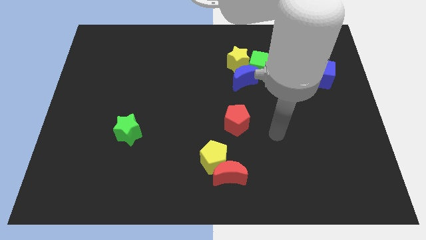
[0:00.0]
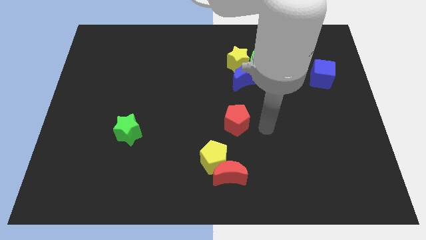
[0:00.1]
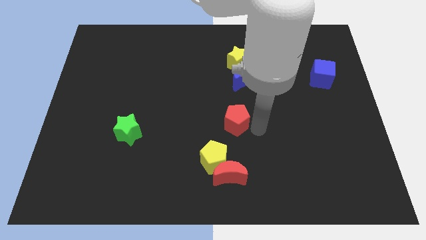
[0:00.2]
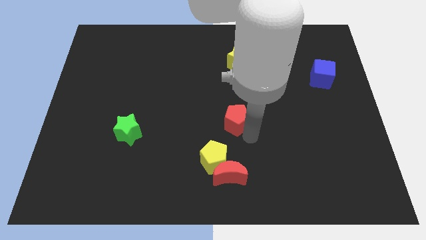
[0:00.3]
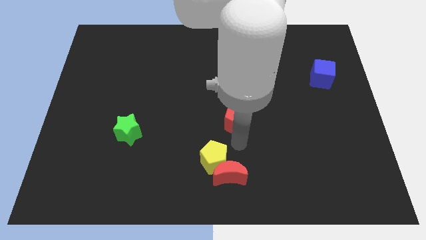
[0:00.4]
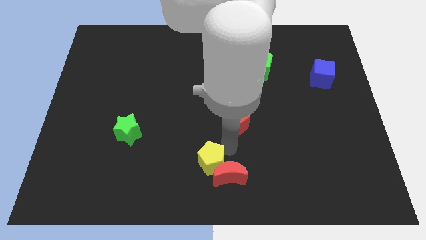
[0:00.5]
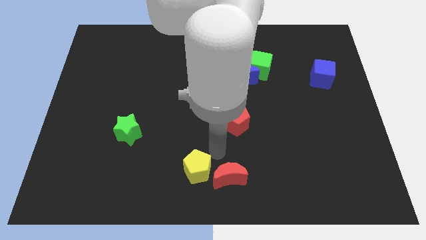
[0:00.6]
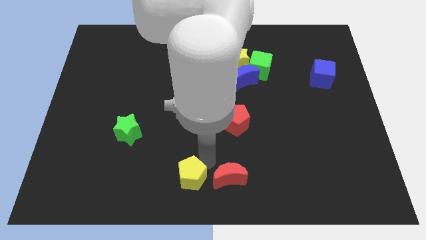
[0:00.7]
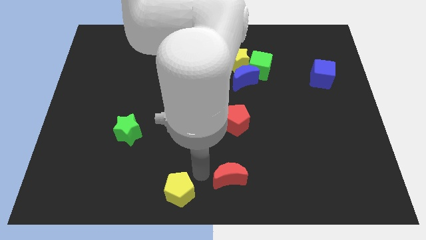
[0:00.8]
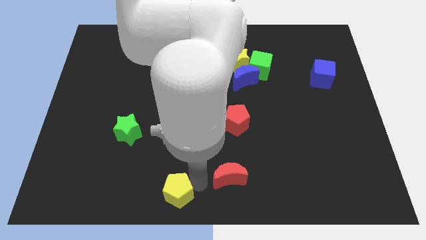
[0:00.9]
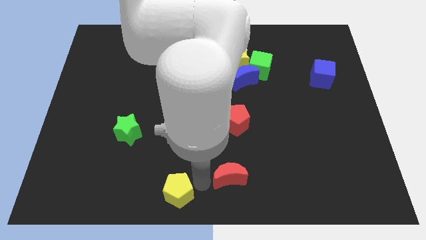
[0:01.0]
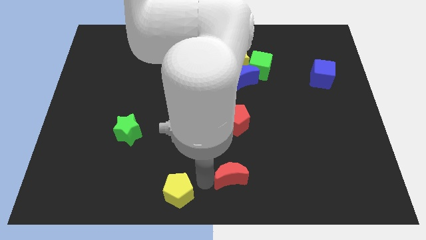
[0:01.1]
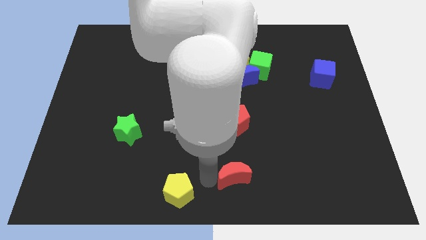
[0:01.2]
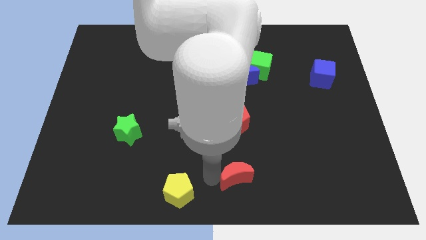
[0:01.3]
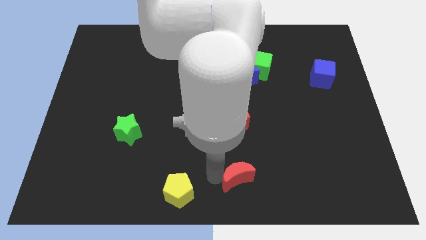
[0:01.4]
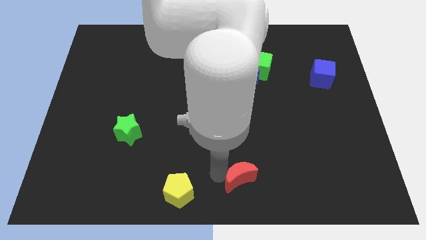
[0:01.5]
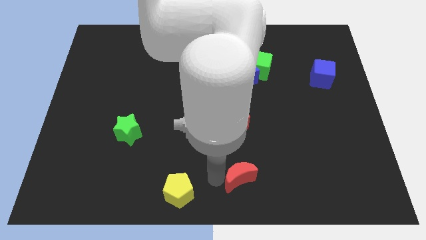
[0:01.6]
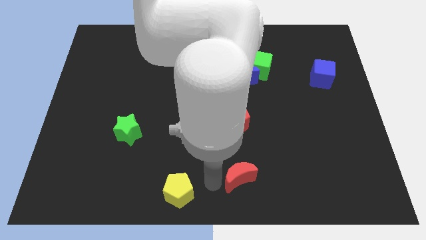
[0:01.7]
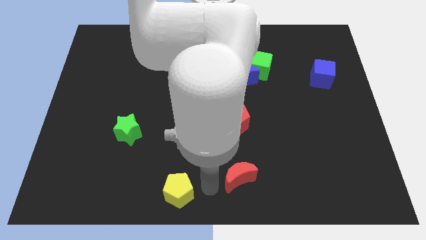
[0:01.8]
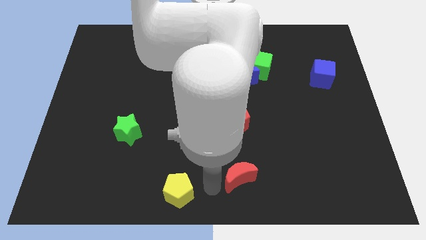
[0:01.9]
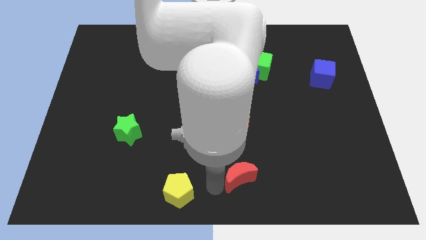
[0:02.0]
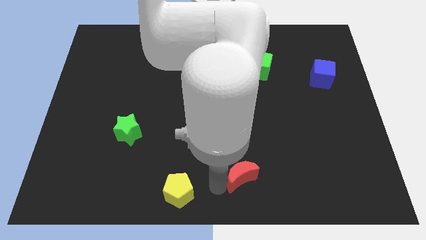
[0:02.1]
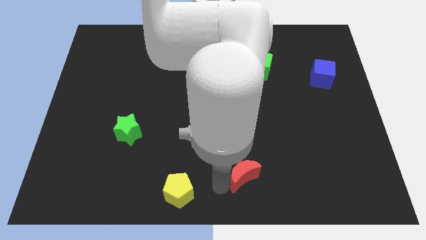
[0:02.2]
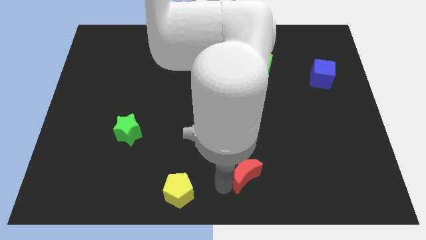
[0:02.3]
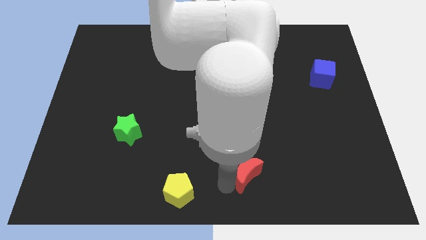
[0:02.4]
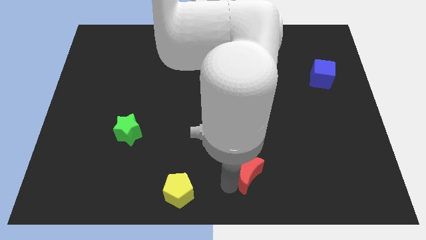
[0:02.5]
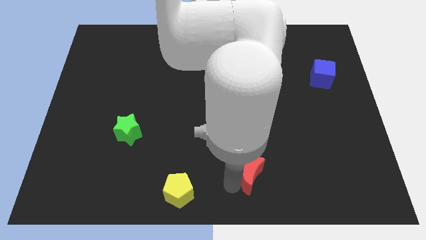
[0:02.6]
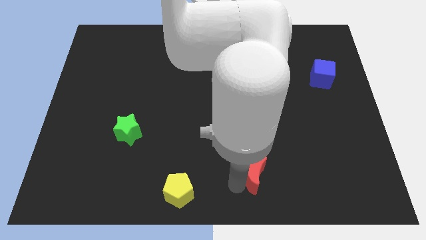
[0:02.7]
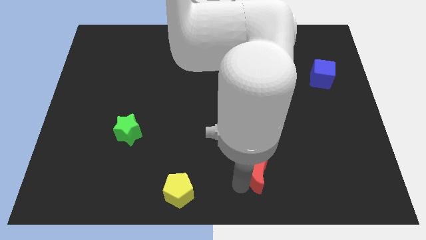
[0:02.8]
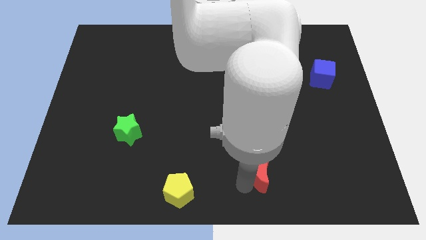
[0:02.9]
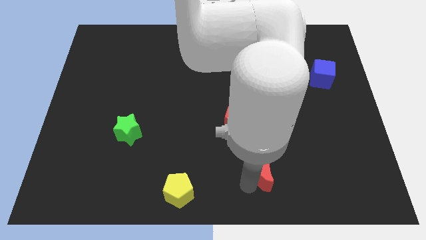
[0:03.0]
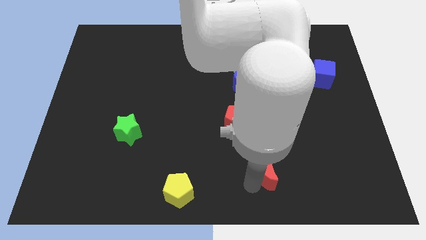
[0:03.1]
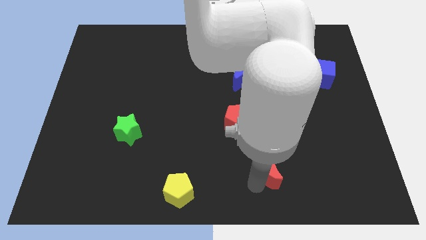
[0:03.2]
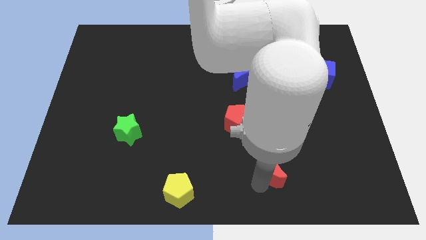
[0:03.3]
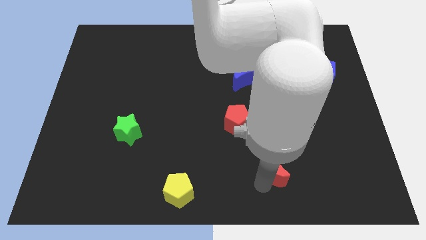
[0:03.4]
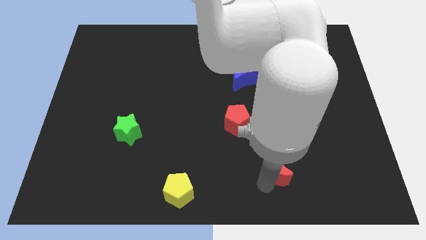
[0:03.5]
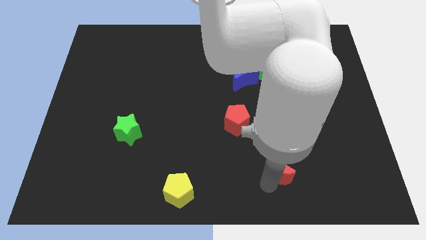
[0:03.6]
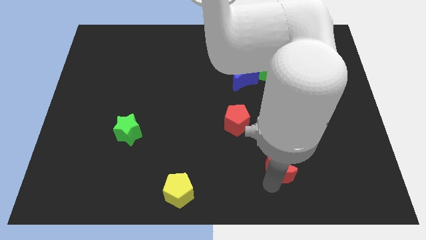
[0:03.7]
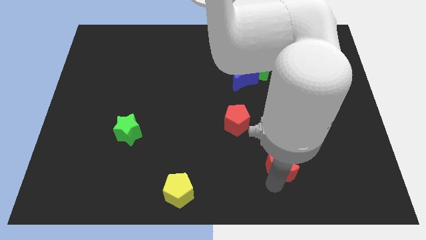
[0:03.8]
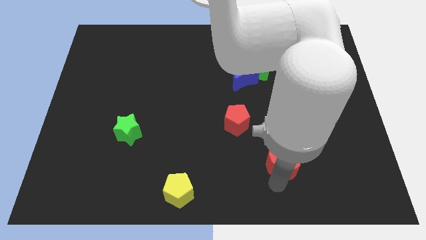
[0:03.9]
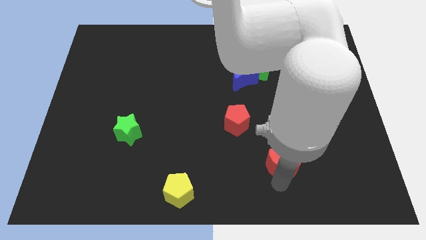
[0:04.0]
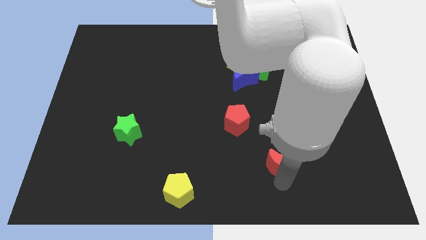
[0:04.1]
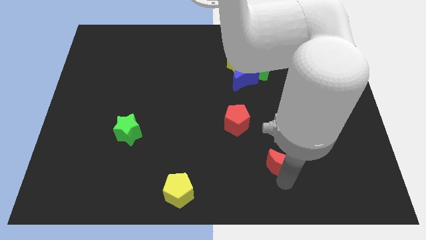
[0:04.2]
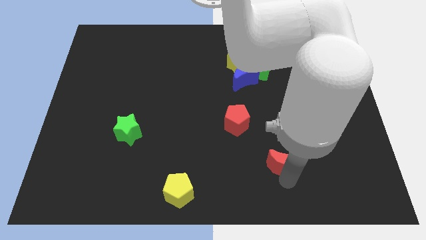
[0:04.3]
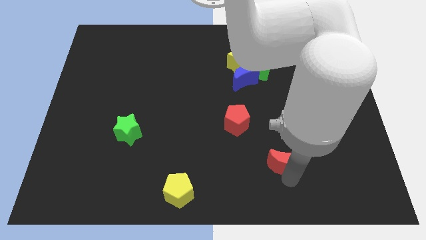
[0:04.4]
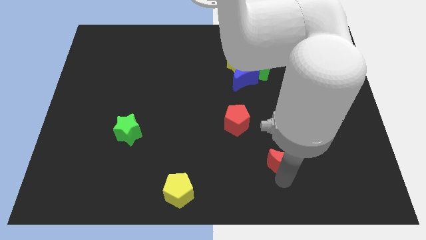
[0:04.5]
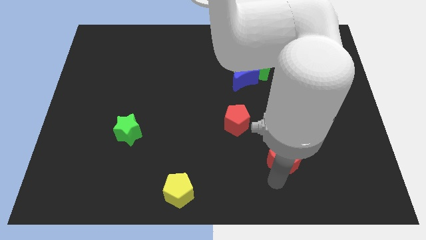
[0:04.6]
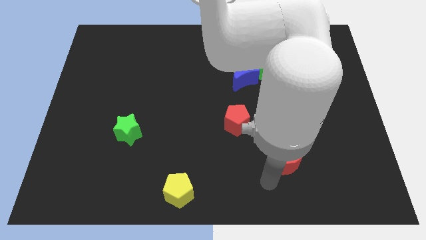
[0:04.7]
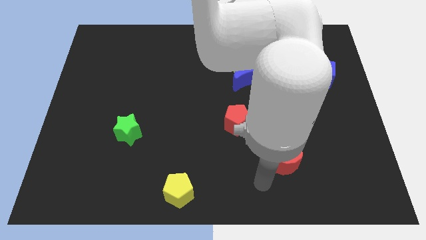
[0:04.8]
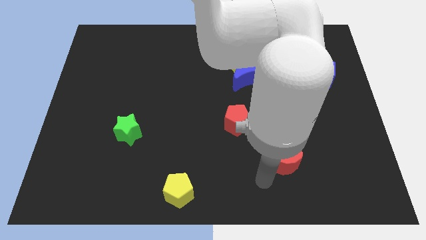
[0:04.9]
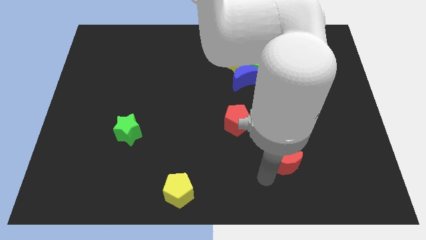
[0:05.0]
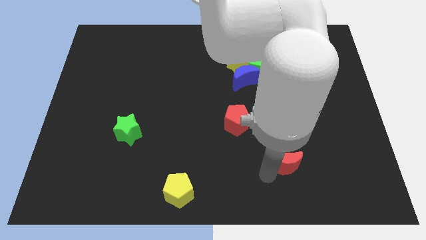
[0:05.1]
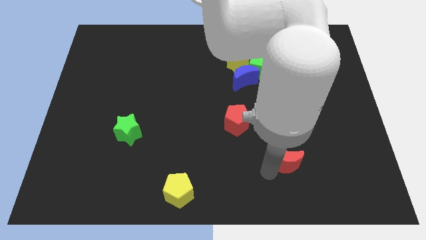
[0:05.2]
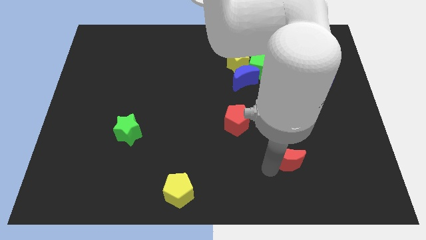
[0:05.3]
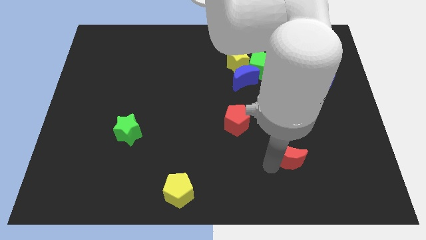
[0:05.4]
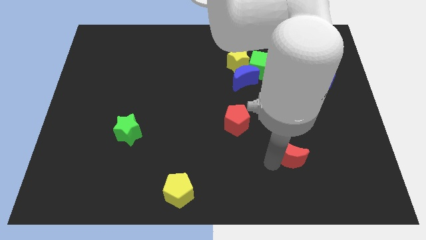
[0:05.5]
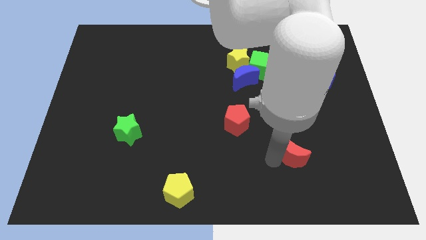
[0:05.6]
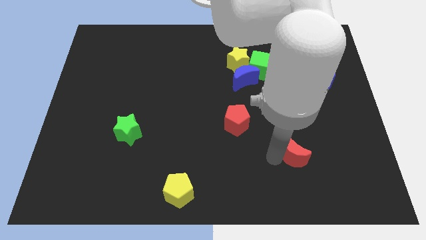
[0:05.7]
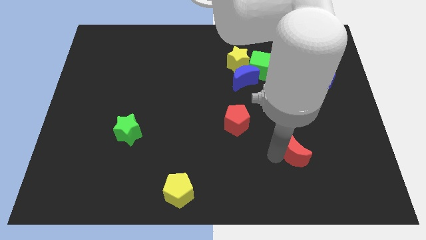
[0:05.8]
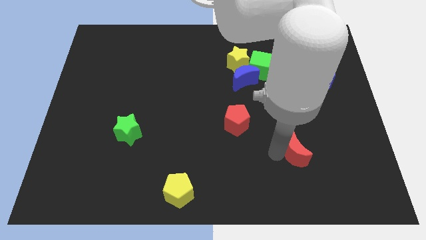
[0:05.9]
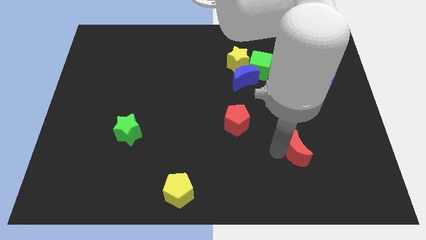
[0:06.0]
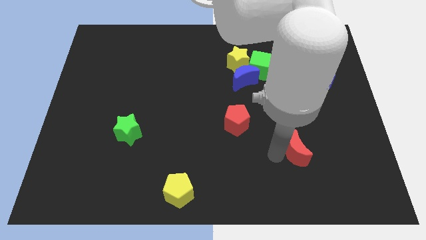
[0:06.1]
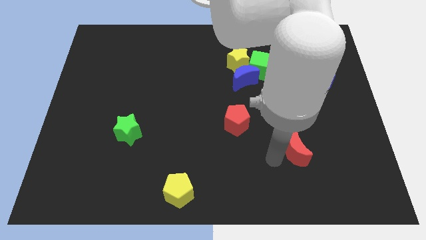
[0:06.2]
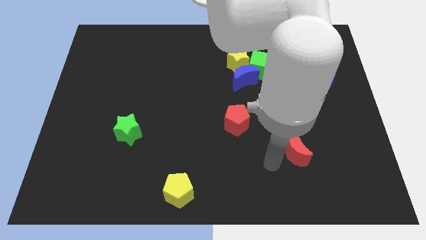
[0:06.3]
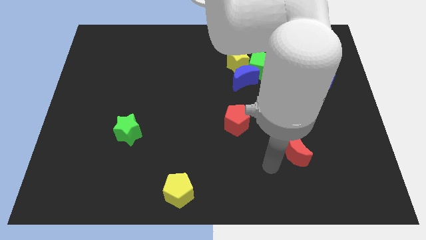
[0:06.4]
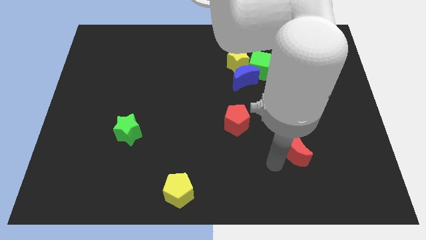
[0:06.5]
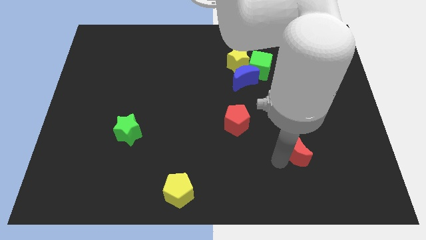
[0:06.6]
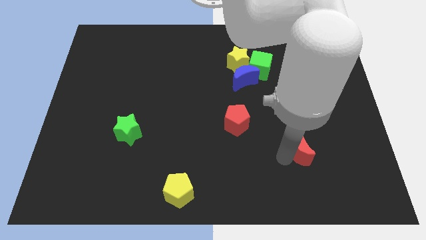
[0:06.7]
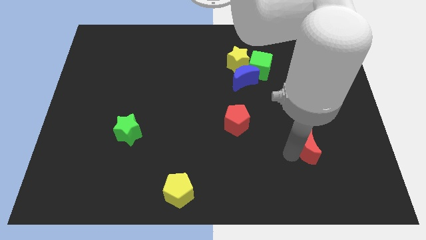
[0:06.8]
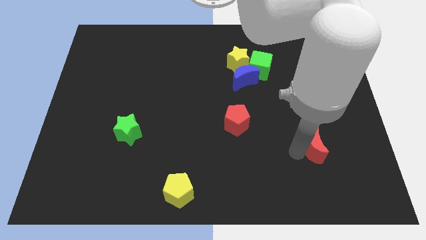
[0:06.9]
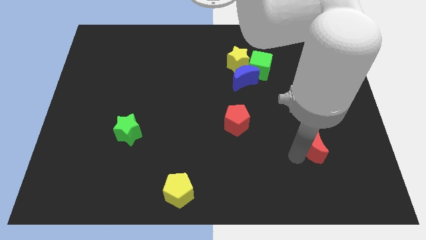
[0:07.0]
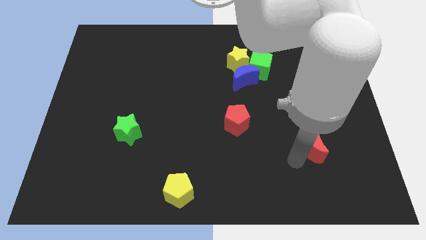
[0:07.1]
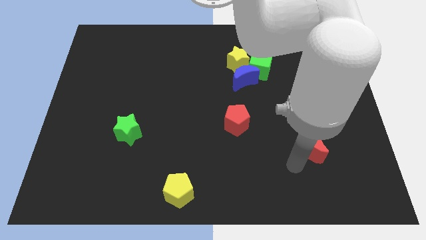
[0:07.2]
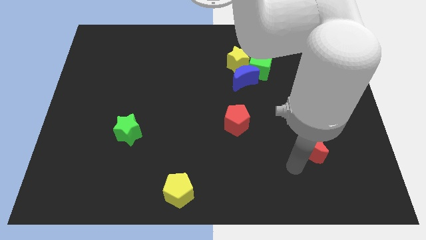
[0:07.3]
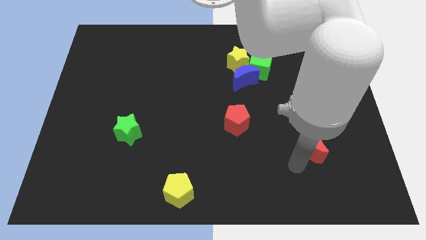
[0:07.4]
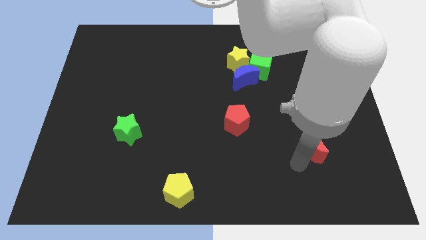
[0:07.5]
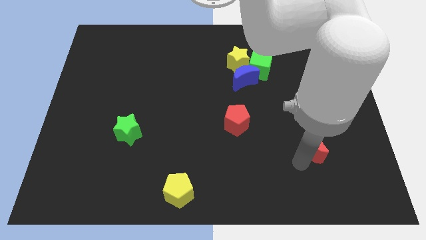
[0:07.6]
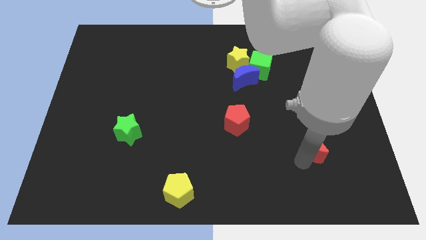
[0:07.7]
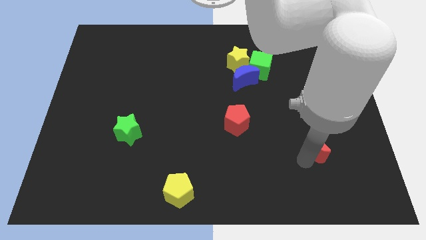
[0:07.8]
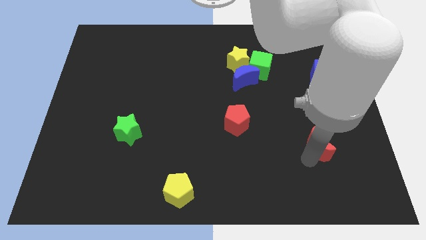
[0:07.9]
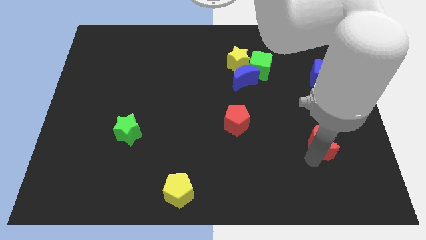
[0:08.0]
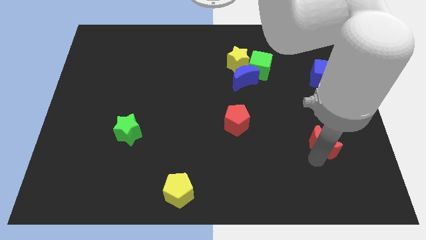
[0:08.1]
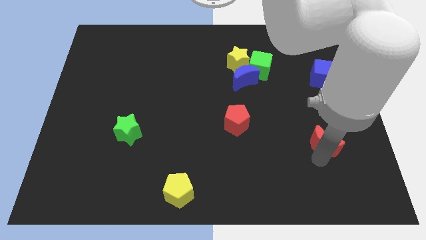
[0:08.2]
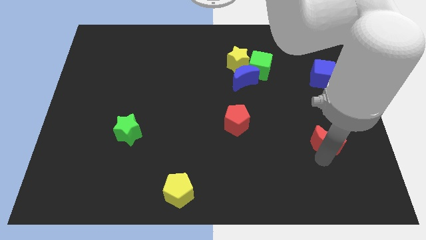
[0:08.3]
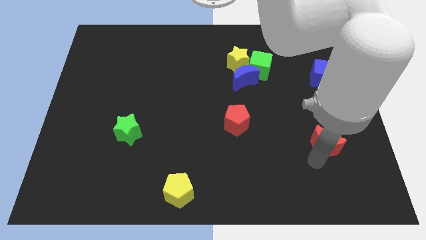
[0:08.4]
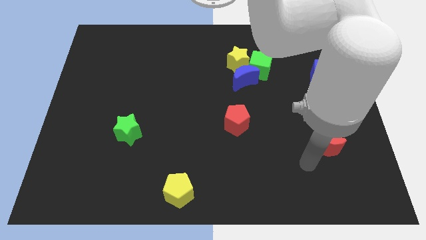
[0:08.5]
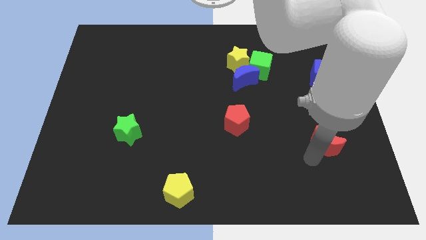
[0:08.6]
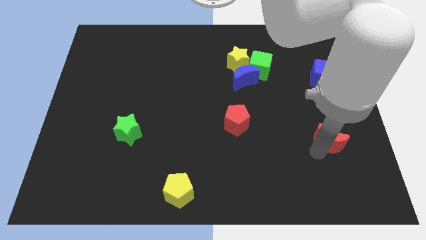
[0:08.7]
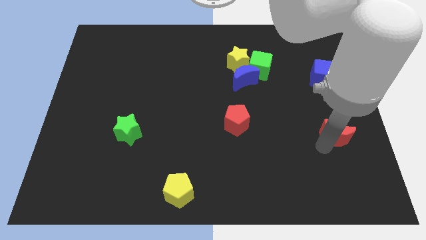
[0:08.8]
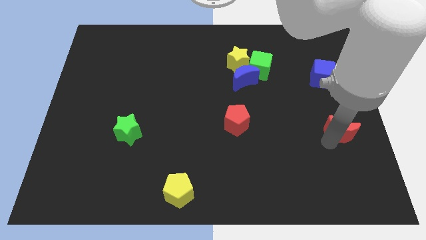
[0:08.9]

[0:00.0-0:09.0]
put the red moon to the right side of the board
